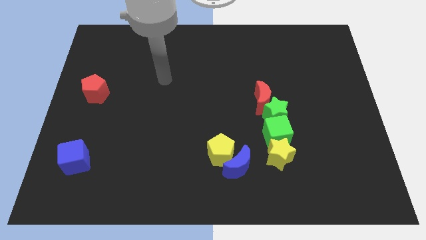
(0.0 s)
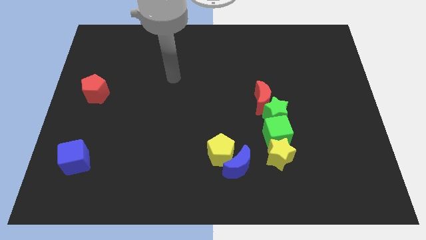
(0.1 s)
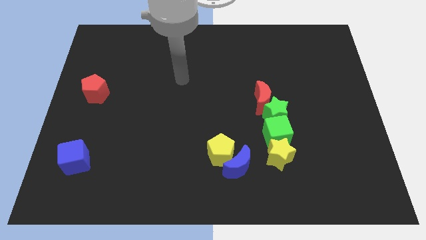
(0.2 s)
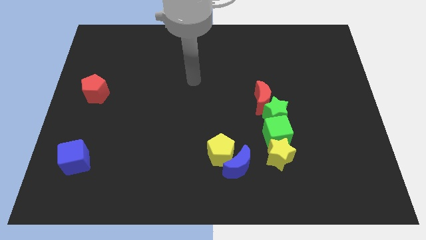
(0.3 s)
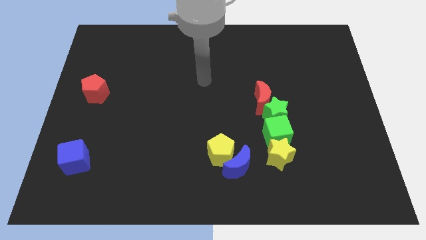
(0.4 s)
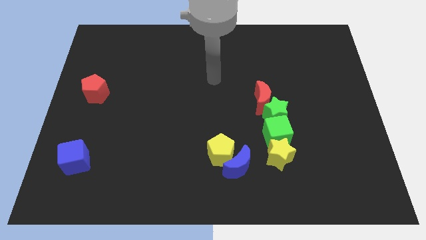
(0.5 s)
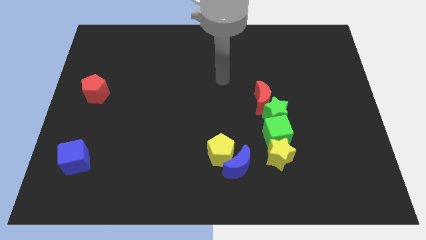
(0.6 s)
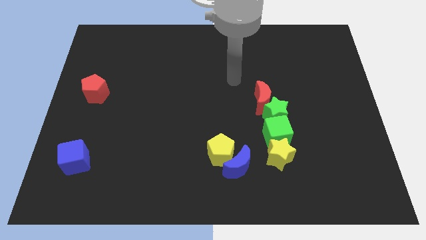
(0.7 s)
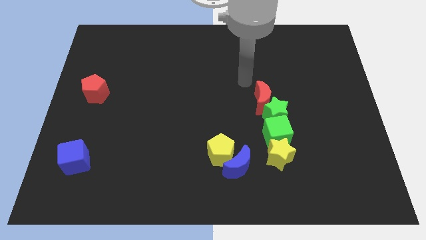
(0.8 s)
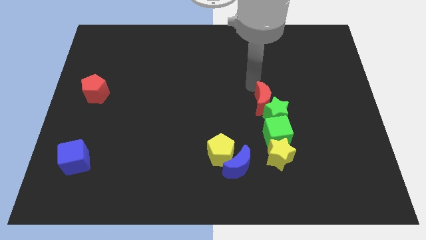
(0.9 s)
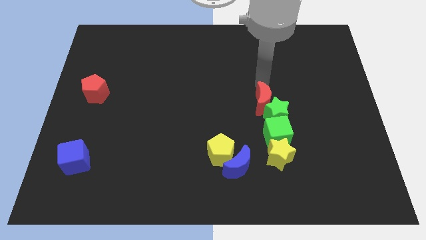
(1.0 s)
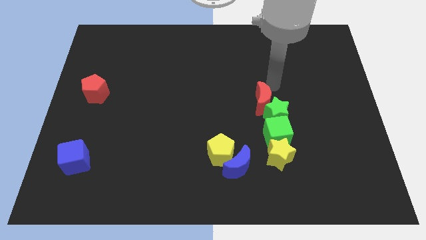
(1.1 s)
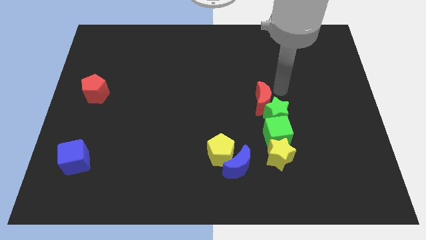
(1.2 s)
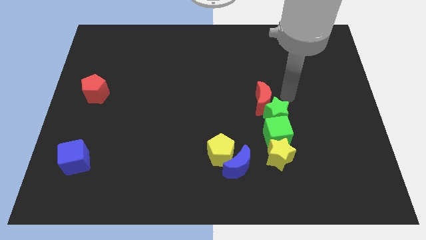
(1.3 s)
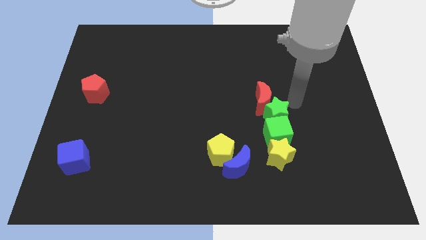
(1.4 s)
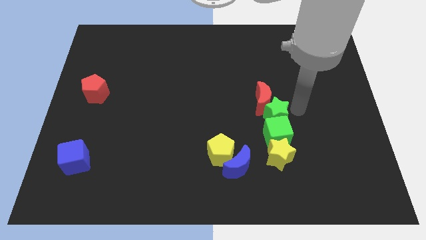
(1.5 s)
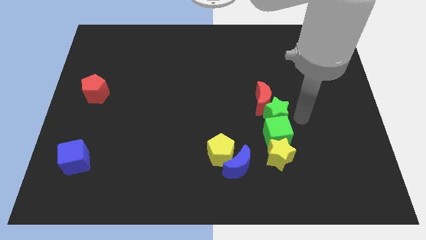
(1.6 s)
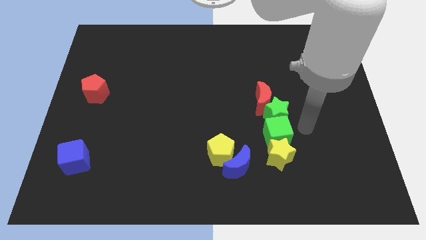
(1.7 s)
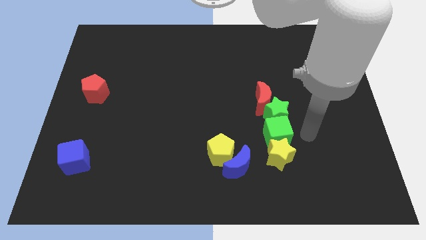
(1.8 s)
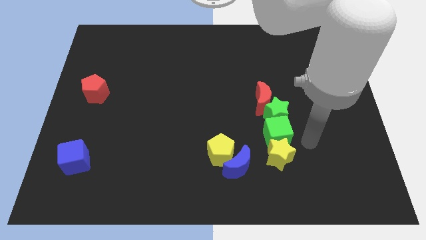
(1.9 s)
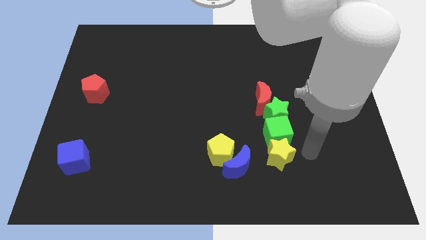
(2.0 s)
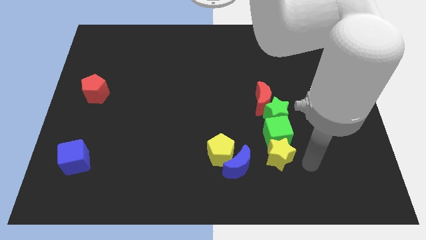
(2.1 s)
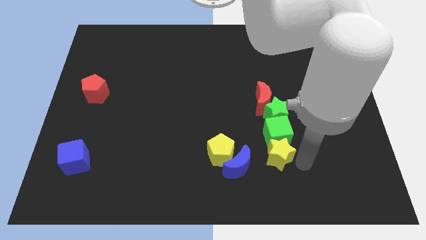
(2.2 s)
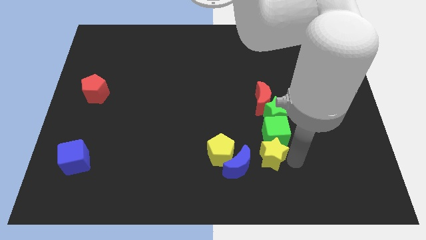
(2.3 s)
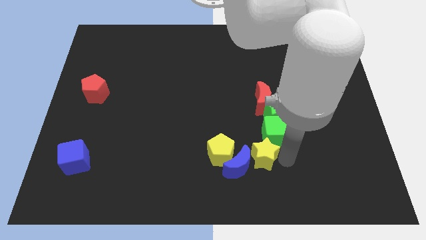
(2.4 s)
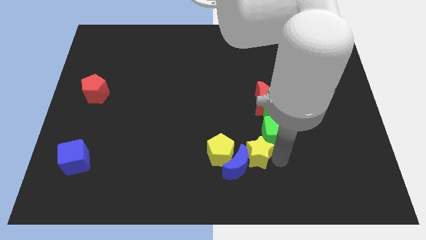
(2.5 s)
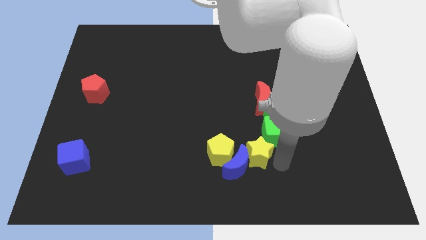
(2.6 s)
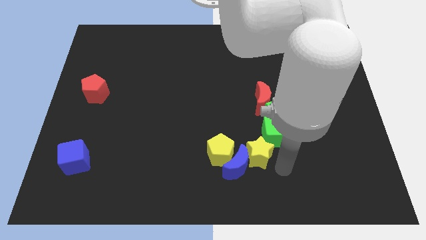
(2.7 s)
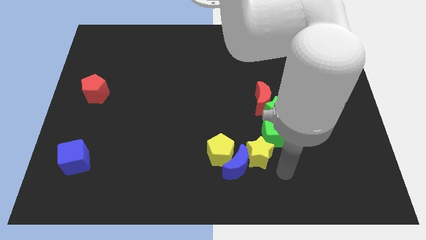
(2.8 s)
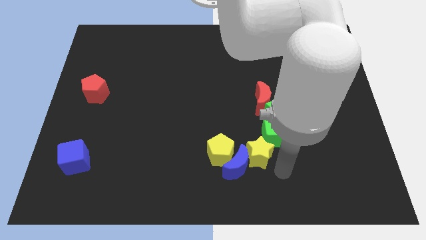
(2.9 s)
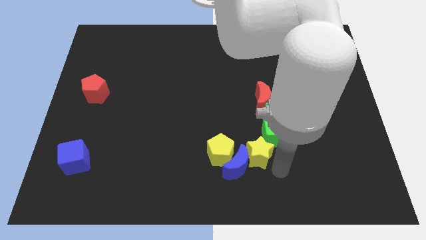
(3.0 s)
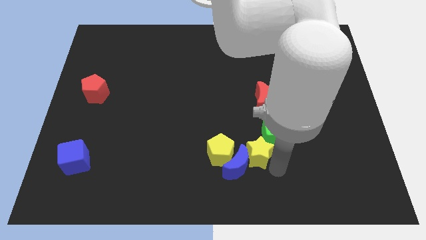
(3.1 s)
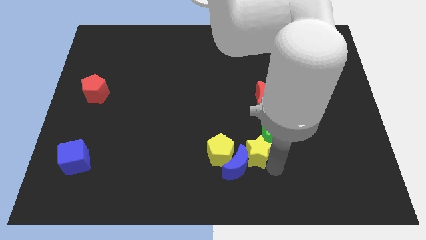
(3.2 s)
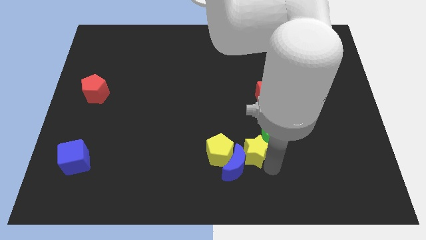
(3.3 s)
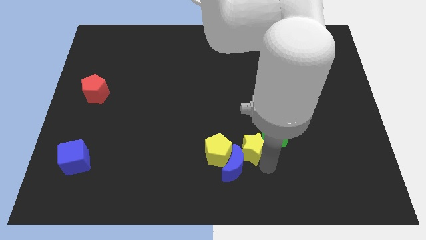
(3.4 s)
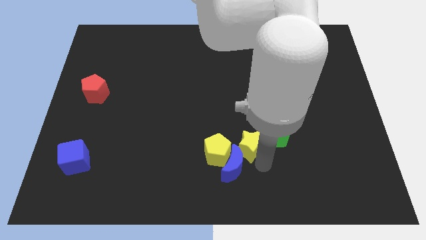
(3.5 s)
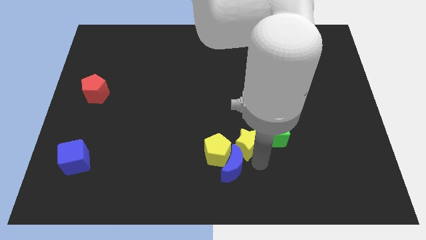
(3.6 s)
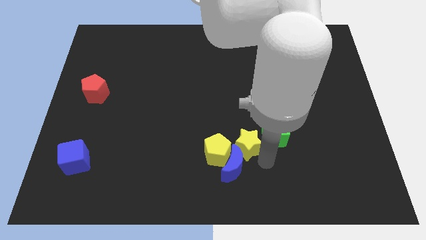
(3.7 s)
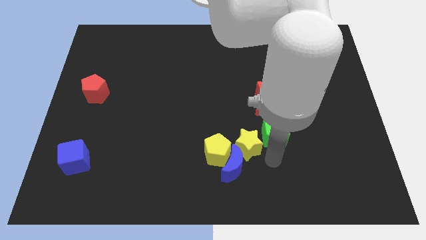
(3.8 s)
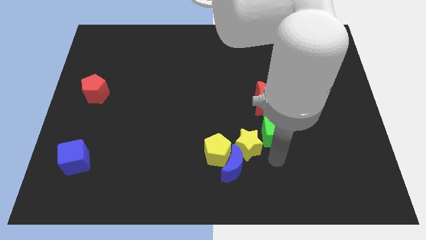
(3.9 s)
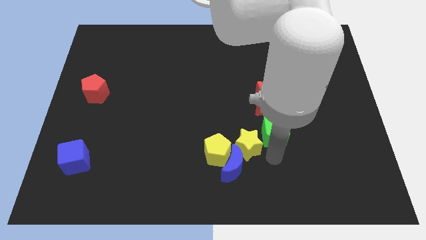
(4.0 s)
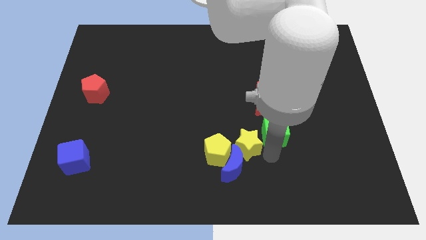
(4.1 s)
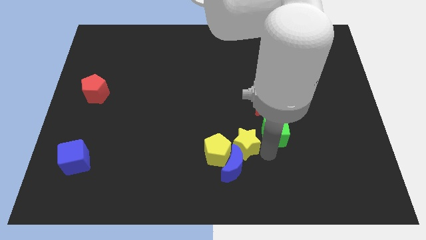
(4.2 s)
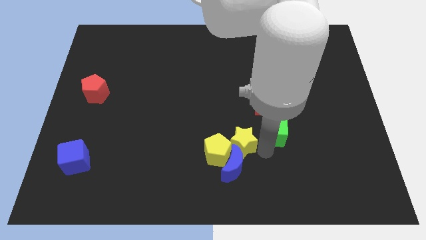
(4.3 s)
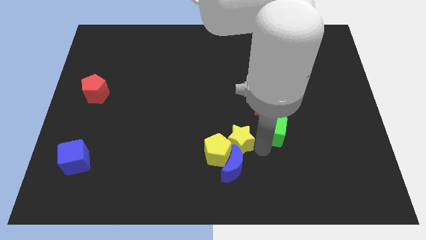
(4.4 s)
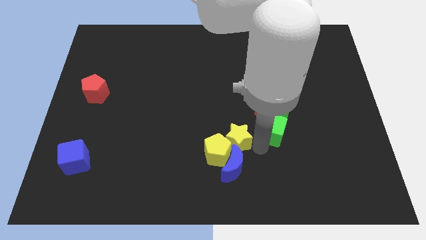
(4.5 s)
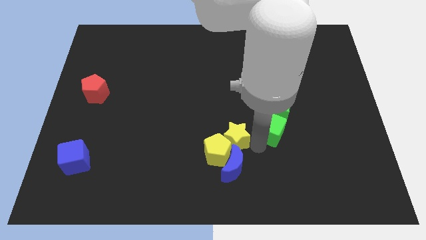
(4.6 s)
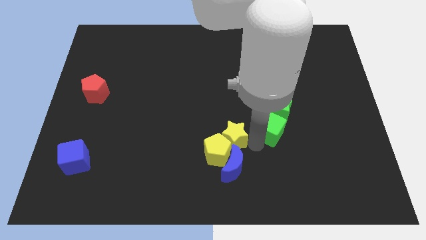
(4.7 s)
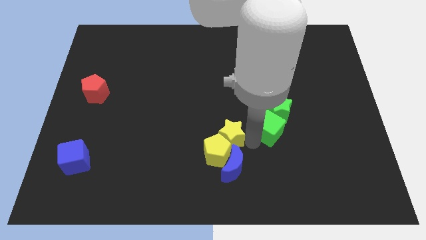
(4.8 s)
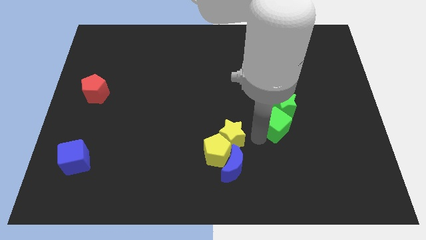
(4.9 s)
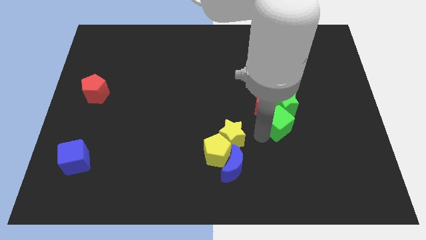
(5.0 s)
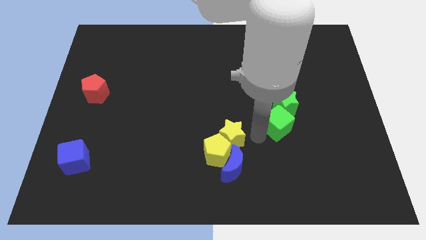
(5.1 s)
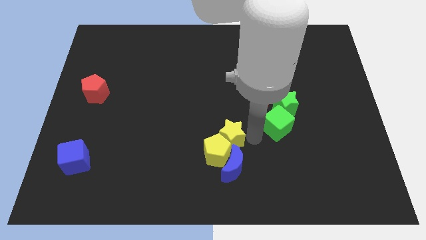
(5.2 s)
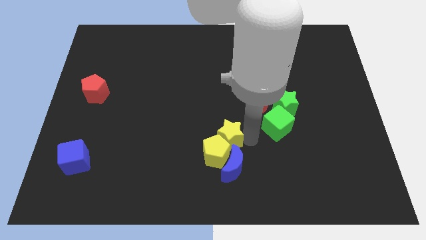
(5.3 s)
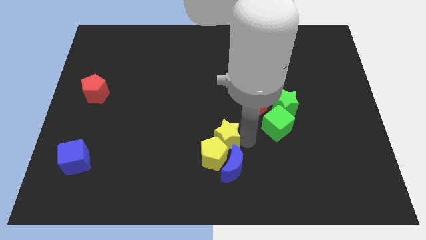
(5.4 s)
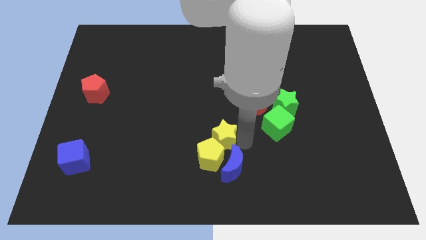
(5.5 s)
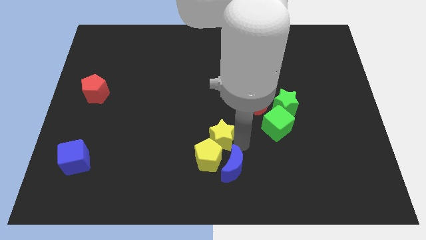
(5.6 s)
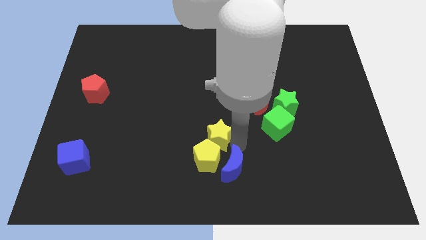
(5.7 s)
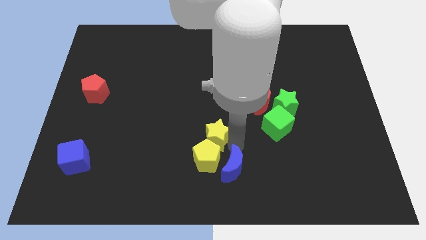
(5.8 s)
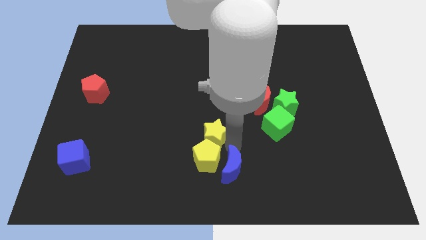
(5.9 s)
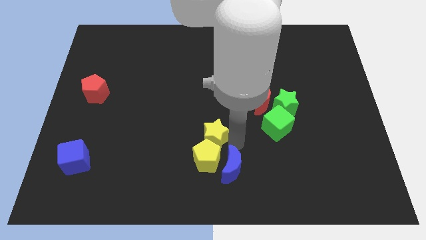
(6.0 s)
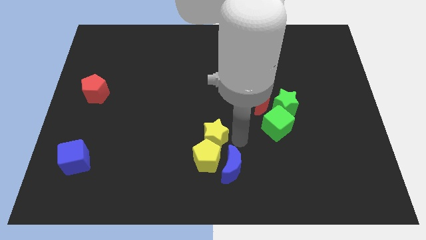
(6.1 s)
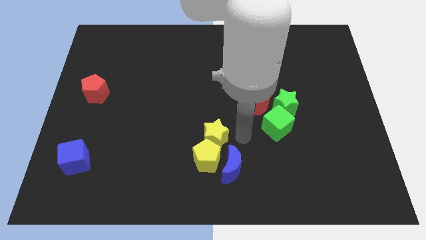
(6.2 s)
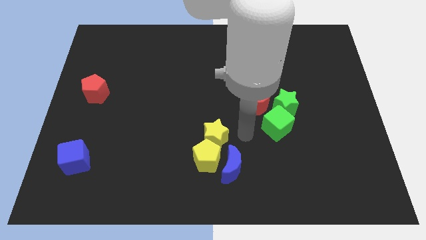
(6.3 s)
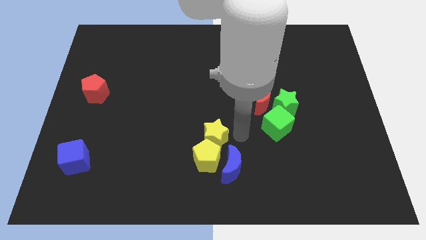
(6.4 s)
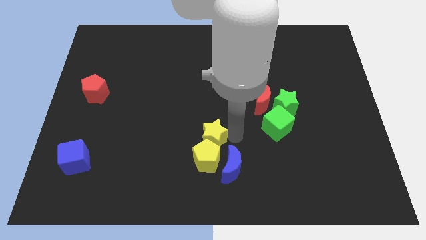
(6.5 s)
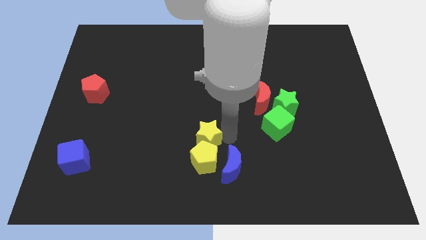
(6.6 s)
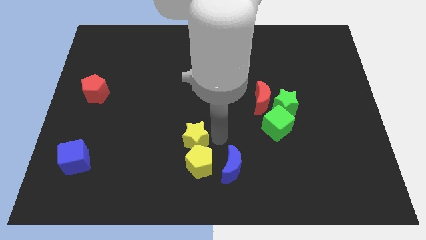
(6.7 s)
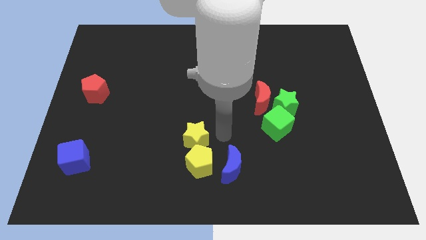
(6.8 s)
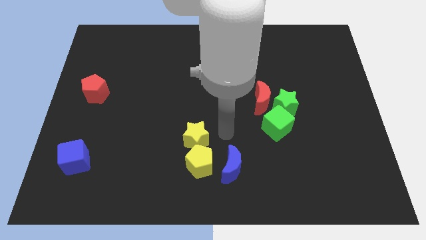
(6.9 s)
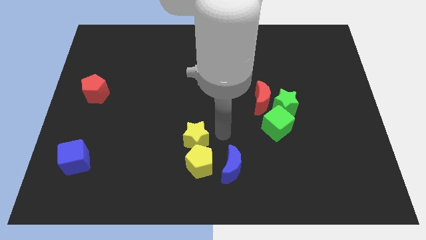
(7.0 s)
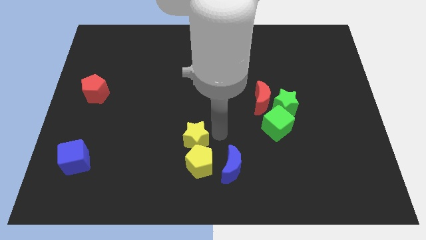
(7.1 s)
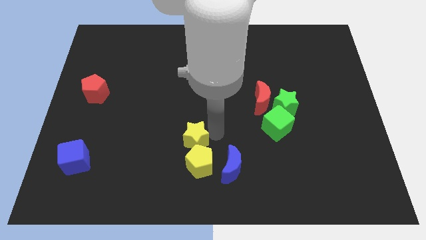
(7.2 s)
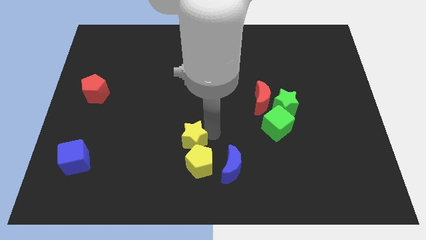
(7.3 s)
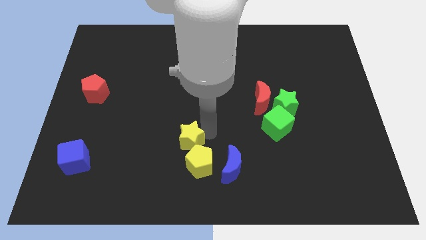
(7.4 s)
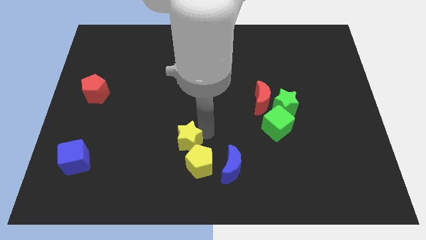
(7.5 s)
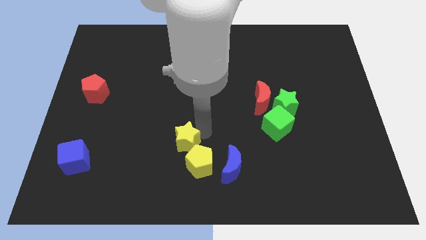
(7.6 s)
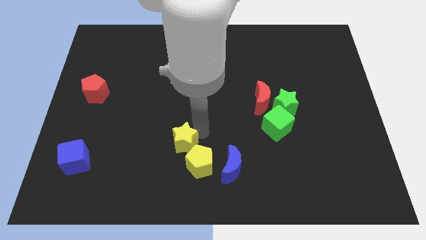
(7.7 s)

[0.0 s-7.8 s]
push the yellow star left

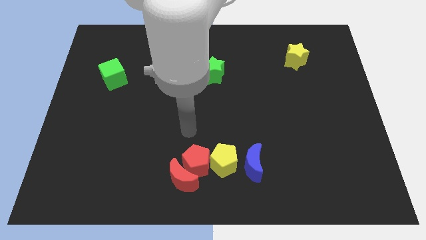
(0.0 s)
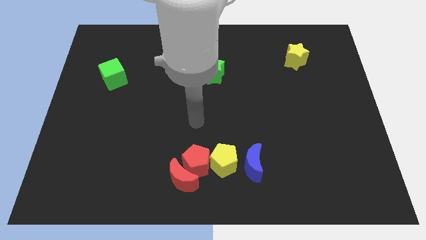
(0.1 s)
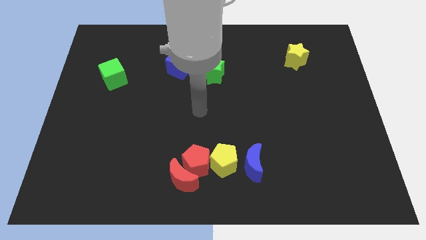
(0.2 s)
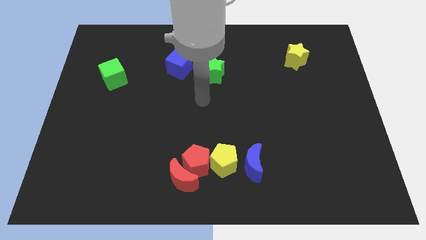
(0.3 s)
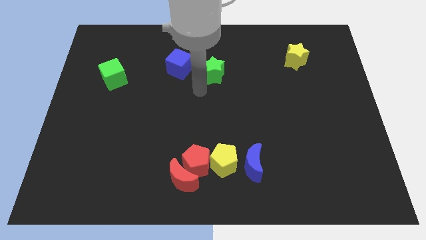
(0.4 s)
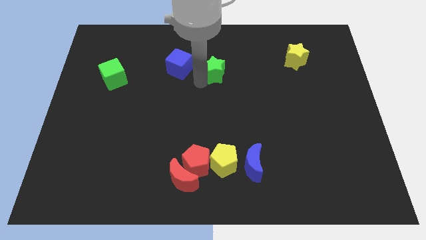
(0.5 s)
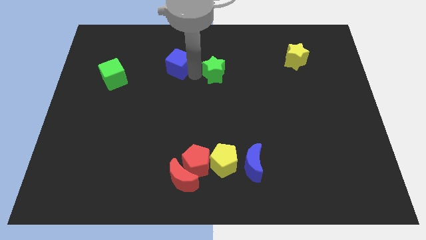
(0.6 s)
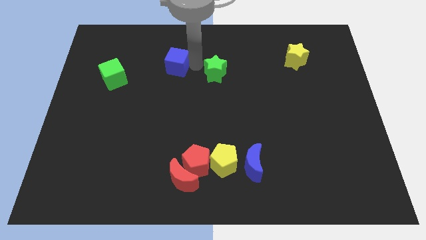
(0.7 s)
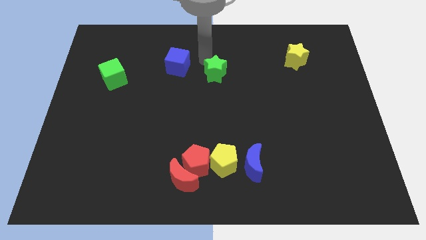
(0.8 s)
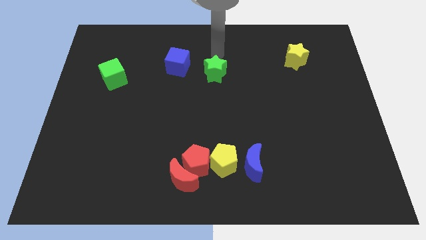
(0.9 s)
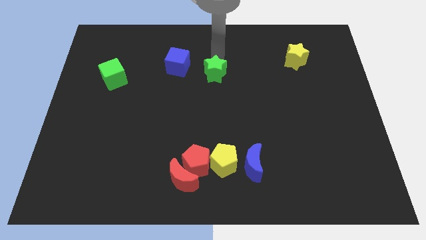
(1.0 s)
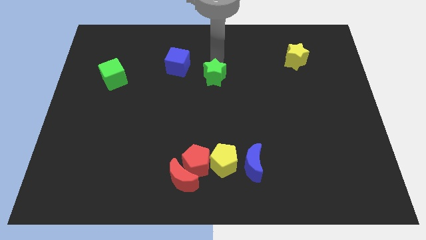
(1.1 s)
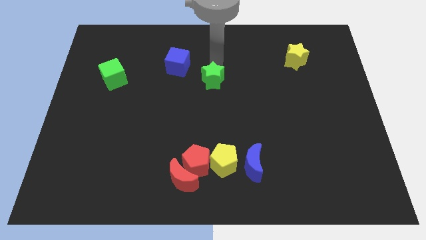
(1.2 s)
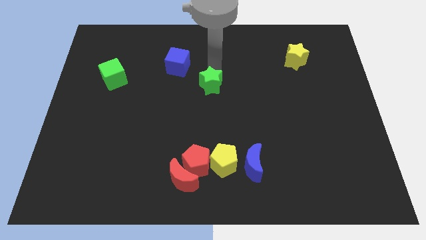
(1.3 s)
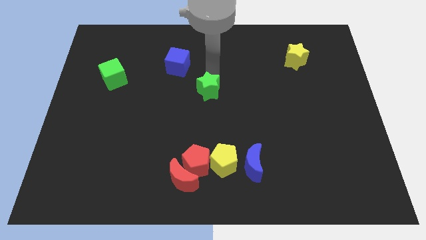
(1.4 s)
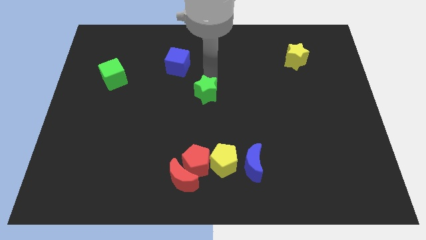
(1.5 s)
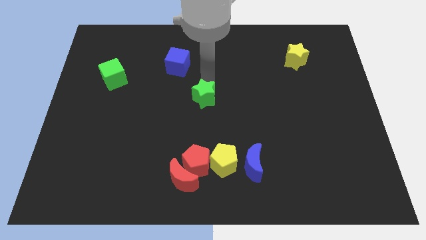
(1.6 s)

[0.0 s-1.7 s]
push the green star down a bit
